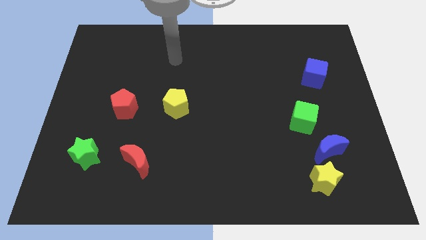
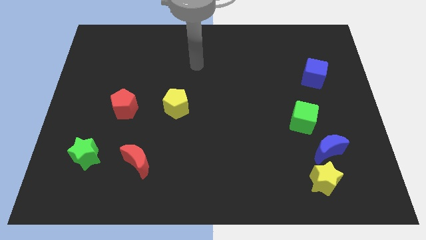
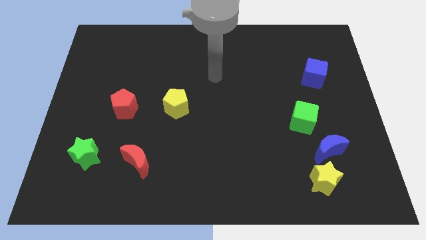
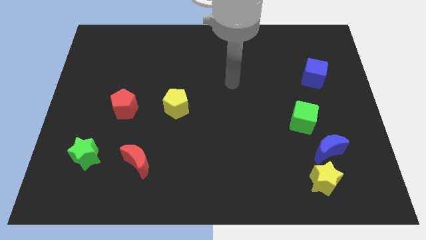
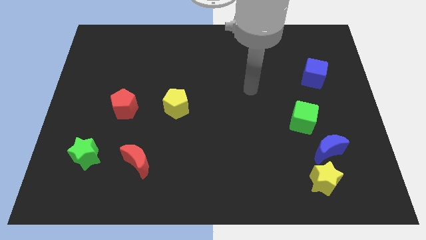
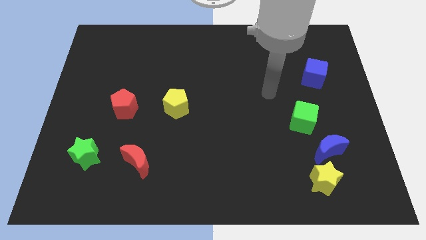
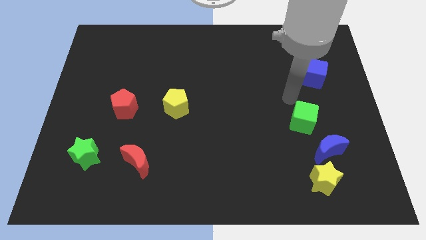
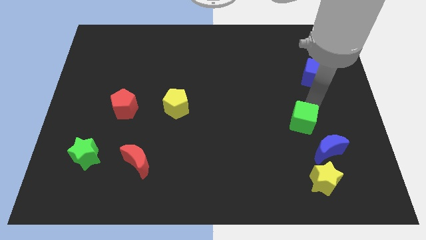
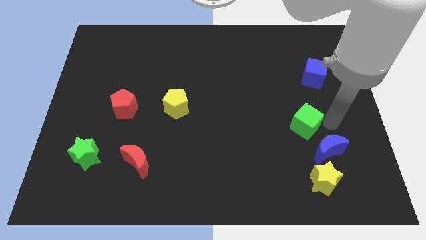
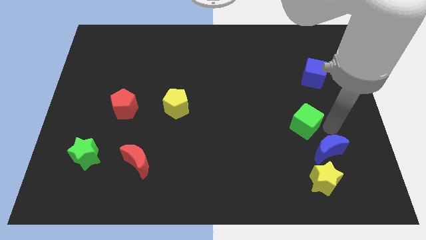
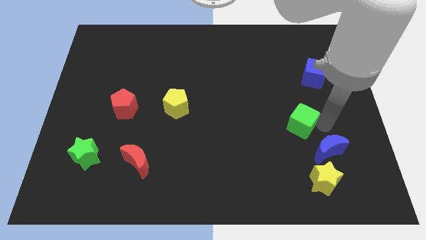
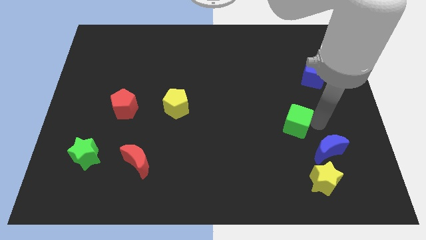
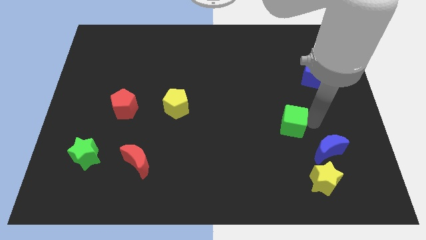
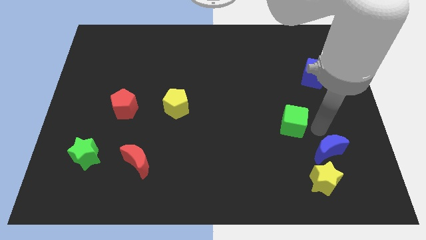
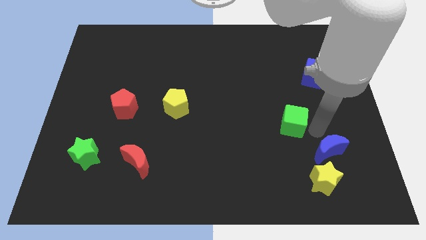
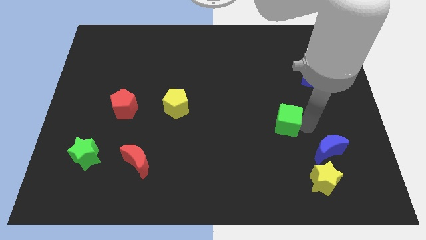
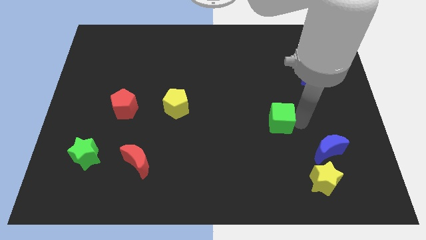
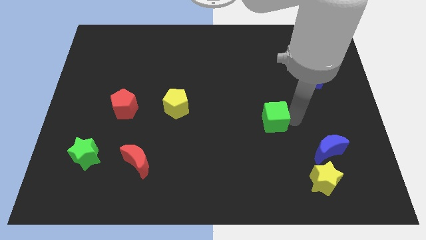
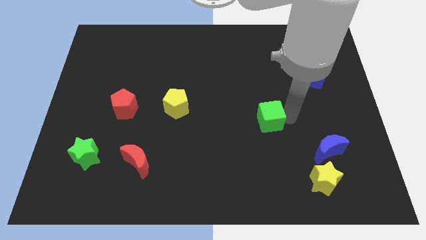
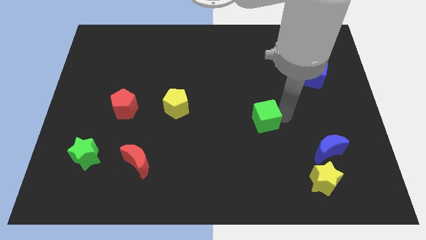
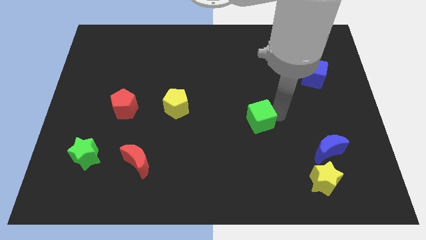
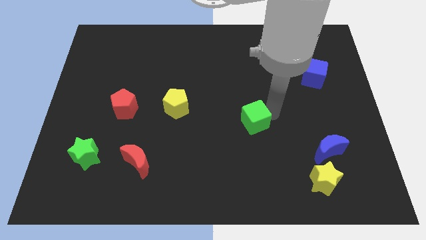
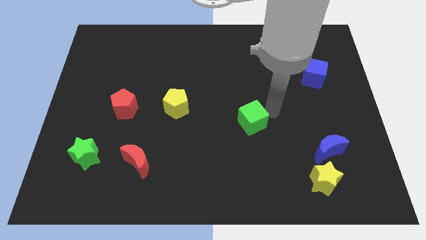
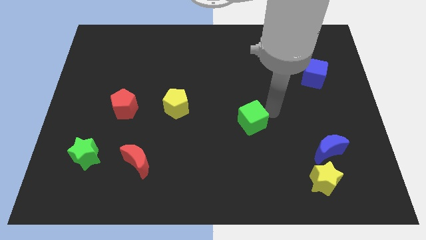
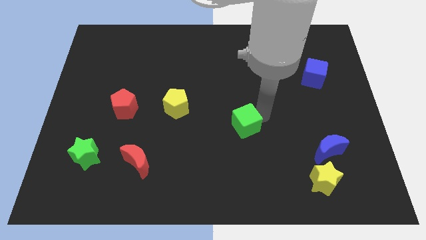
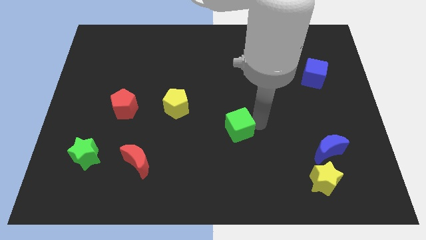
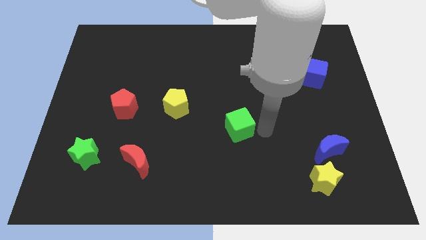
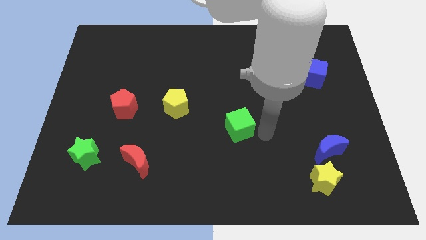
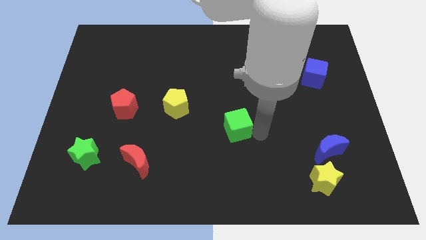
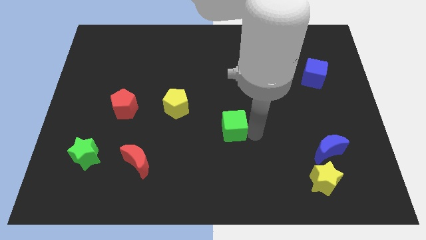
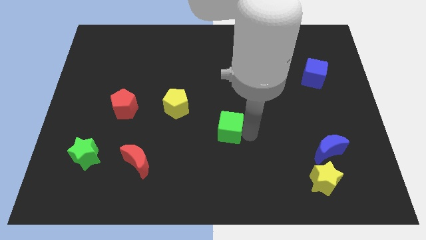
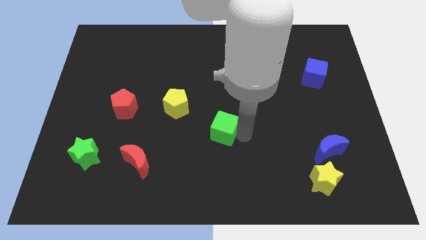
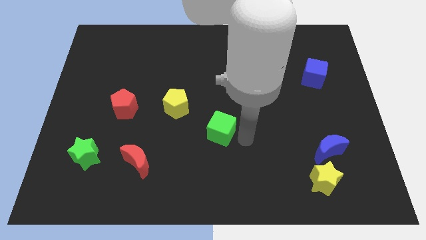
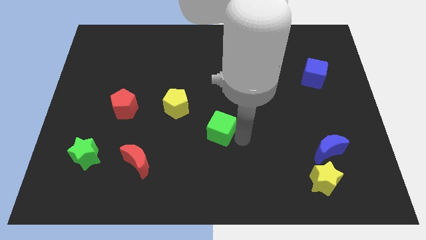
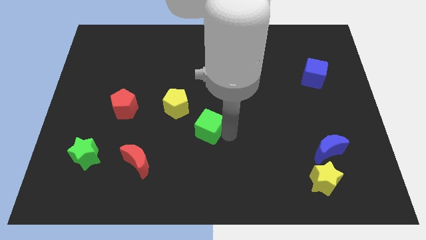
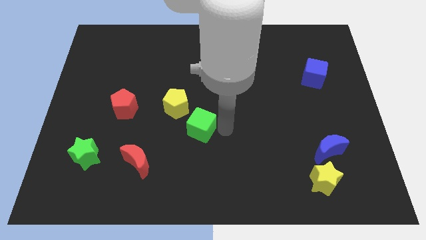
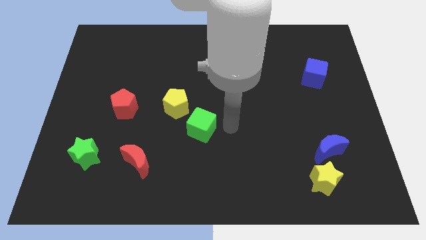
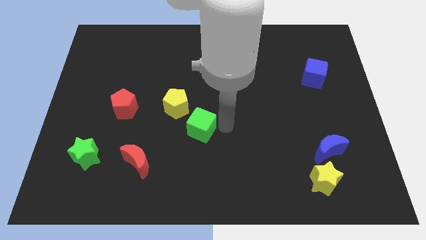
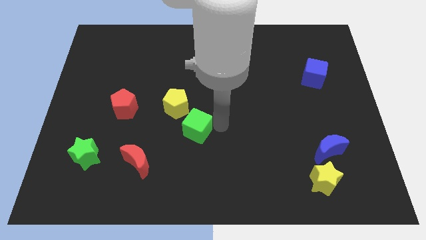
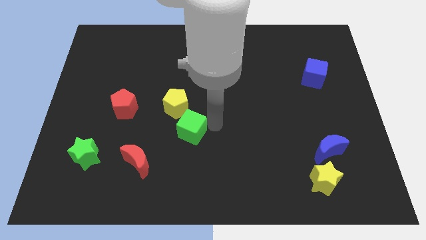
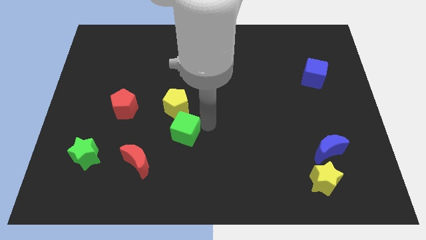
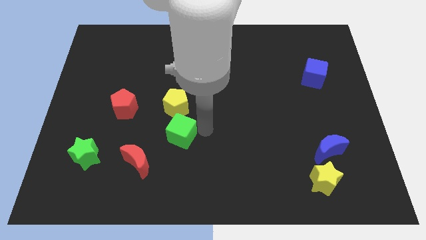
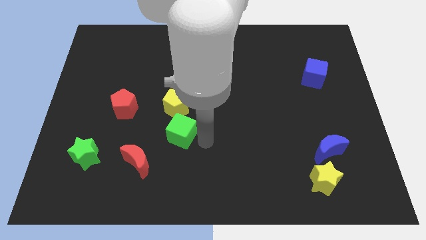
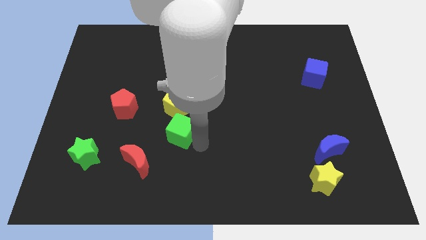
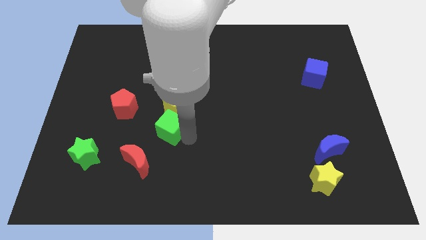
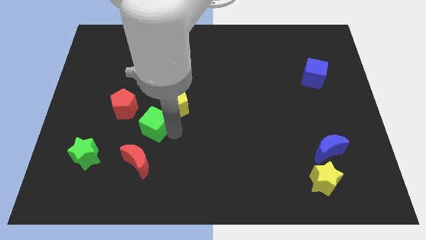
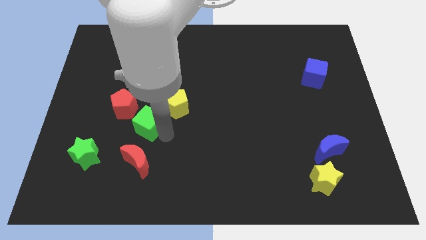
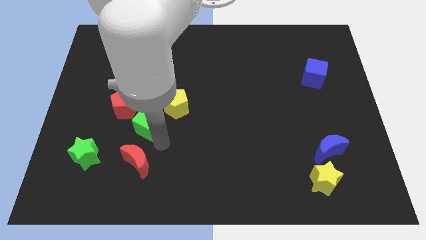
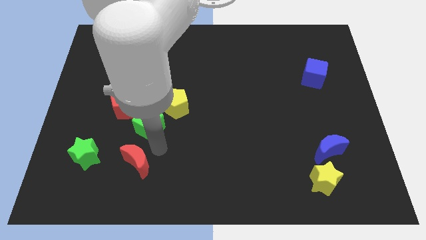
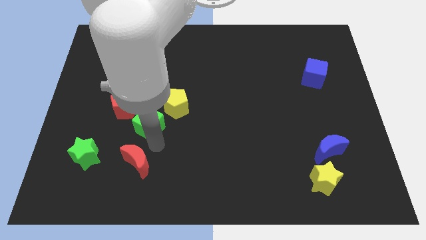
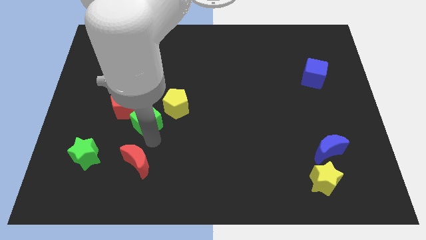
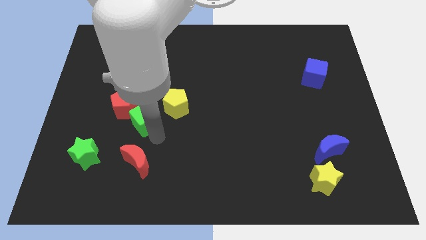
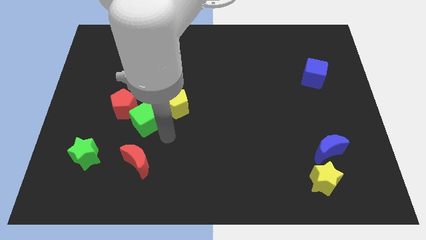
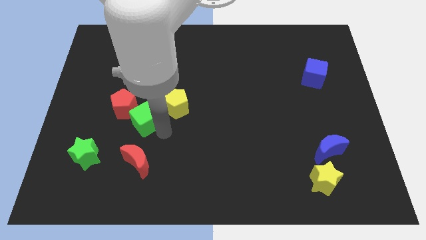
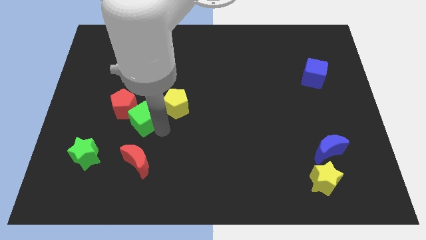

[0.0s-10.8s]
put the green cube to the red pentagon

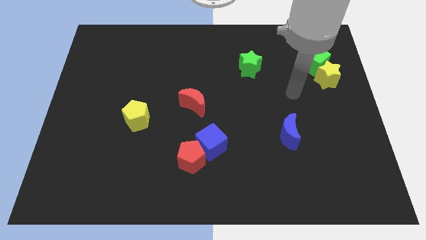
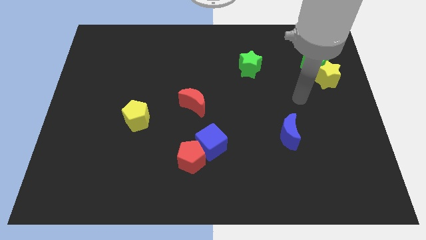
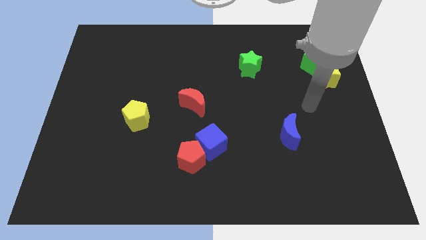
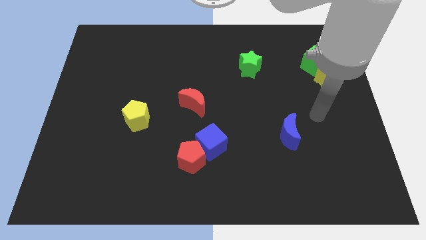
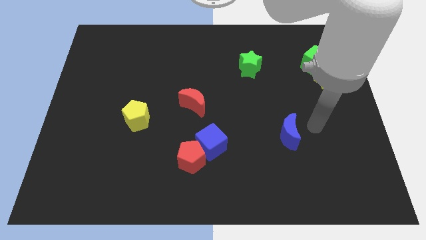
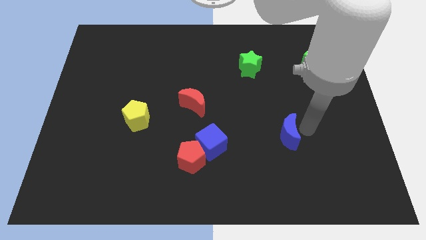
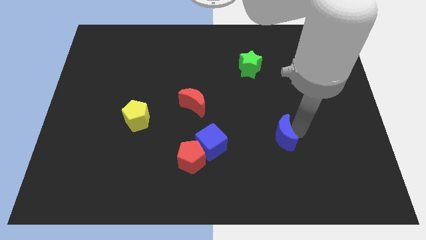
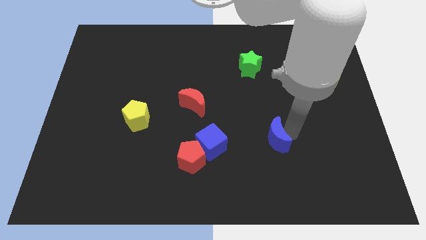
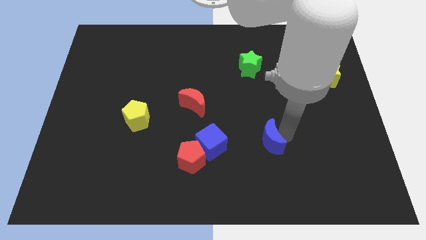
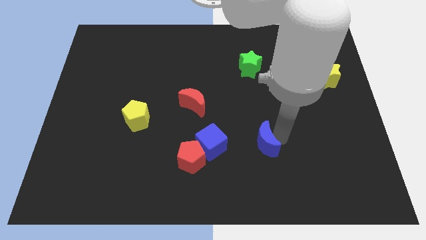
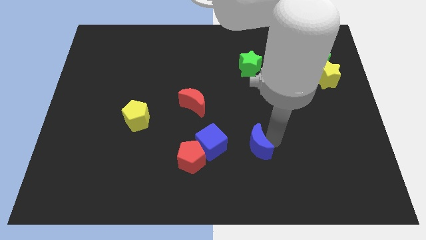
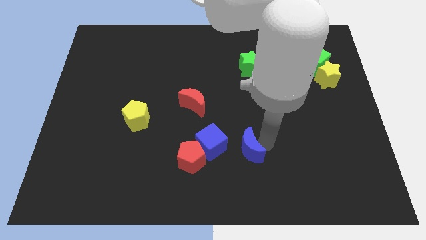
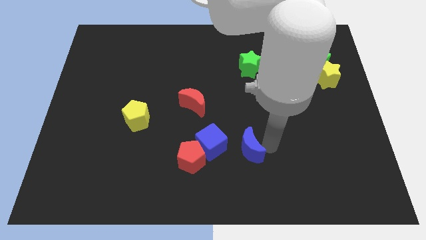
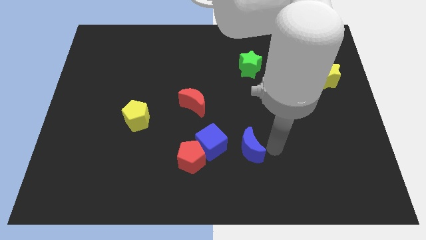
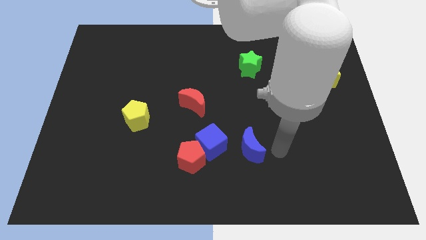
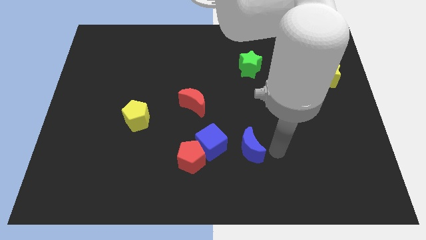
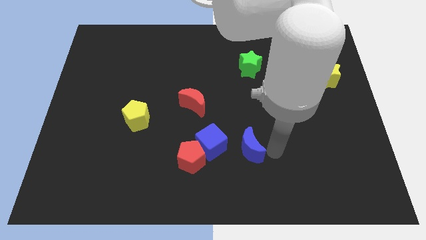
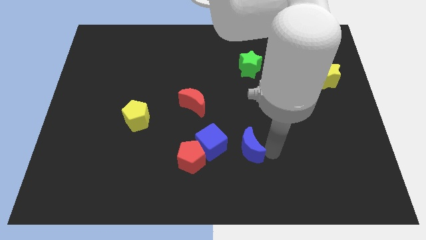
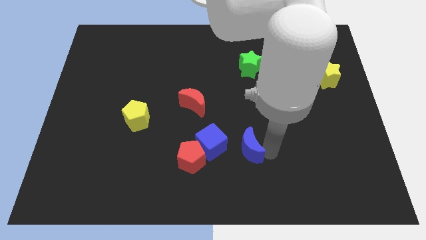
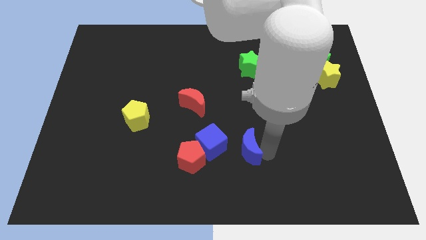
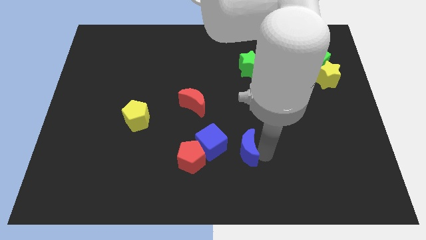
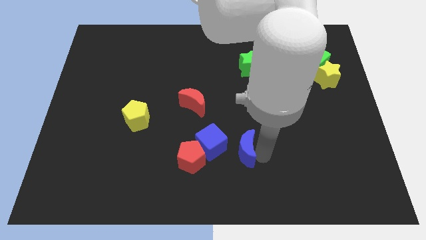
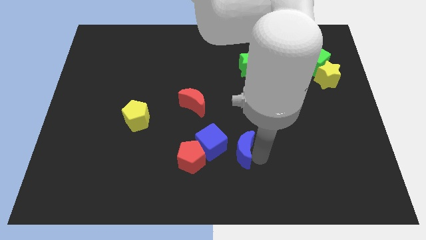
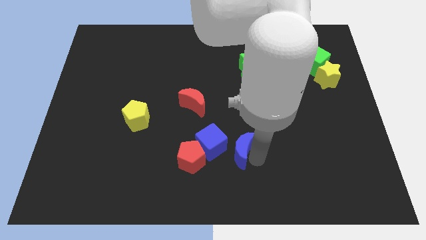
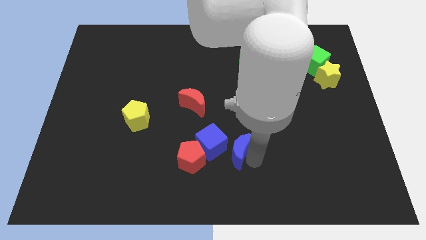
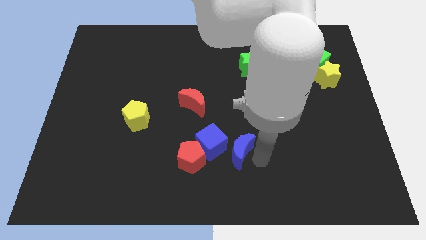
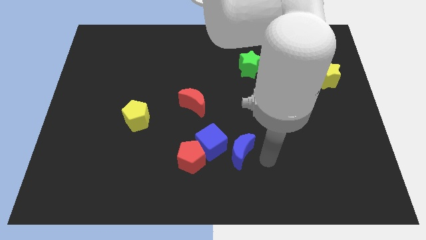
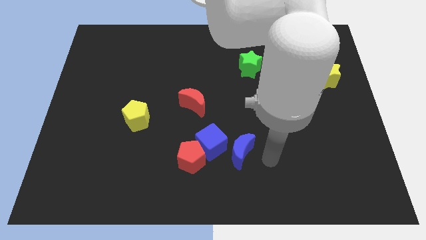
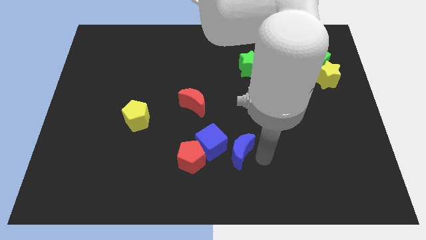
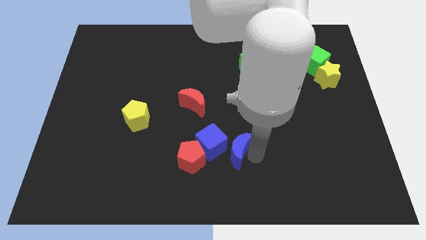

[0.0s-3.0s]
put the blue moon to the blue cube
